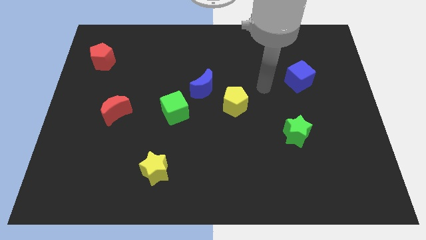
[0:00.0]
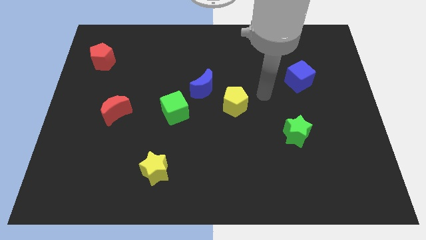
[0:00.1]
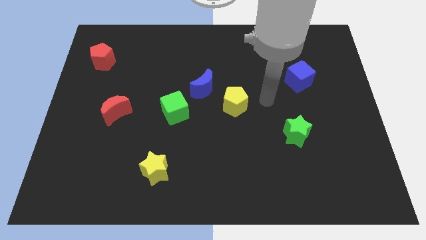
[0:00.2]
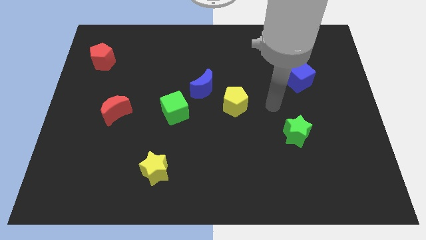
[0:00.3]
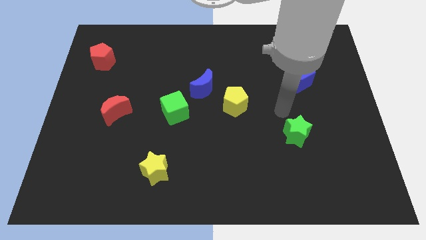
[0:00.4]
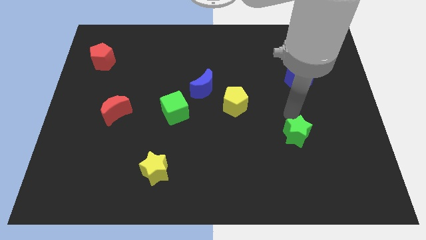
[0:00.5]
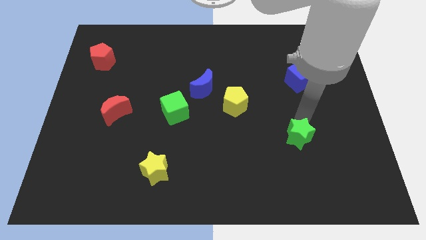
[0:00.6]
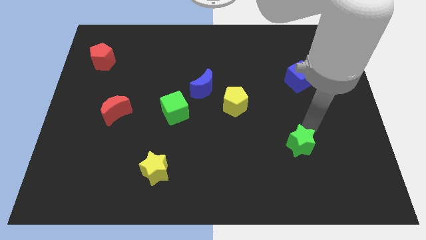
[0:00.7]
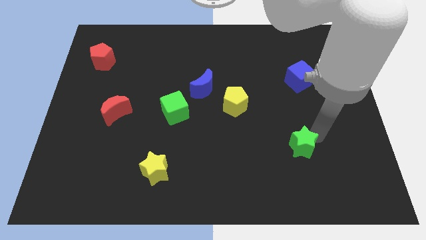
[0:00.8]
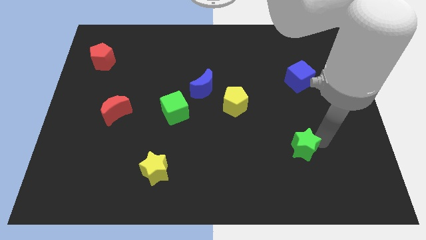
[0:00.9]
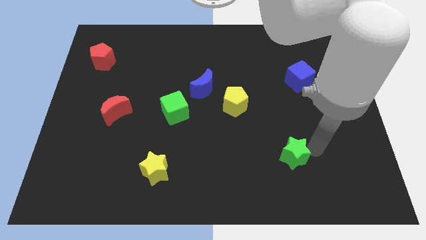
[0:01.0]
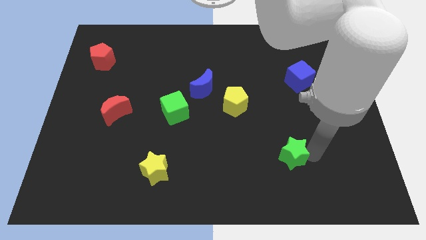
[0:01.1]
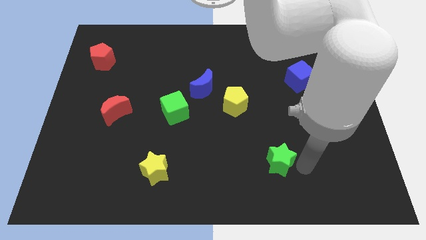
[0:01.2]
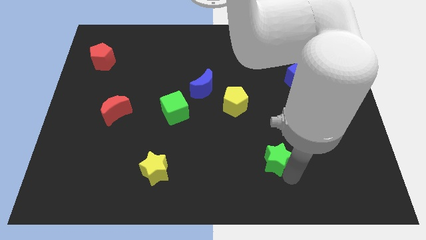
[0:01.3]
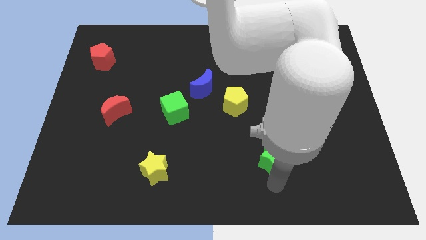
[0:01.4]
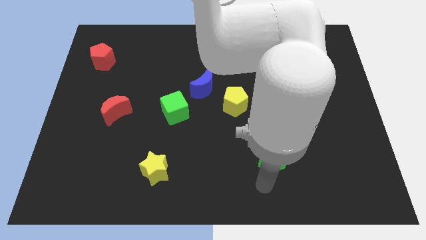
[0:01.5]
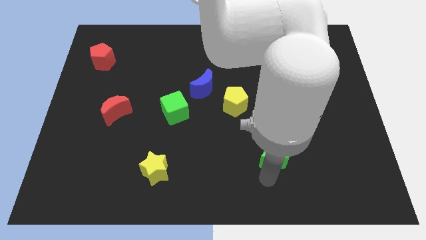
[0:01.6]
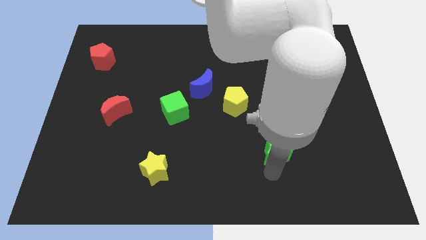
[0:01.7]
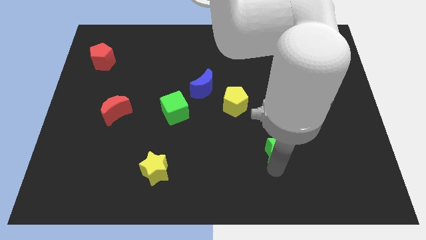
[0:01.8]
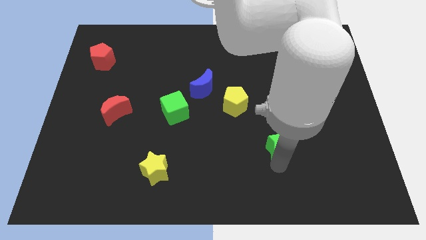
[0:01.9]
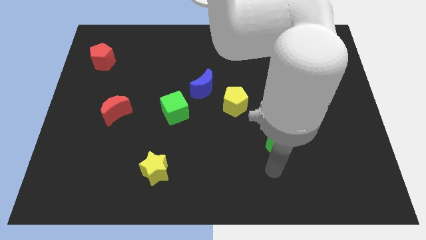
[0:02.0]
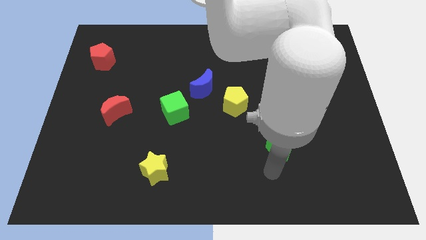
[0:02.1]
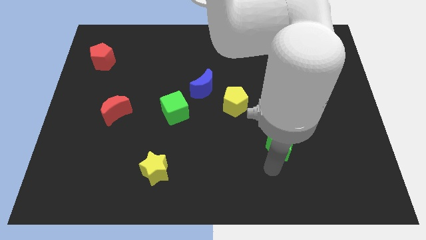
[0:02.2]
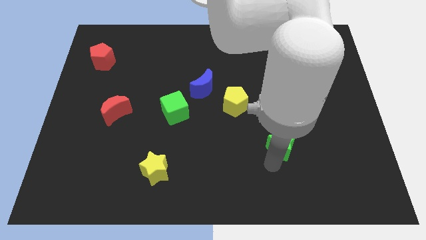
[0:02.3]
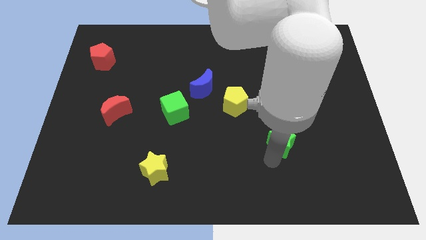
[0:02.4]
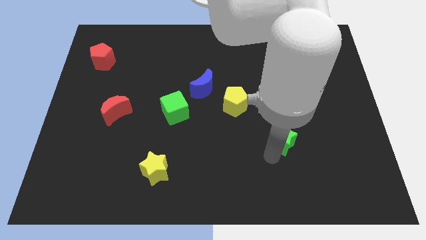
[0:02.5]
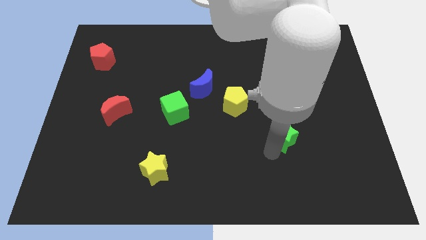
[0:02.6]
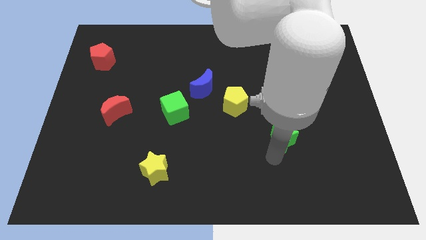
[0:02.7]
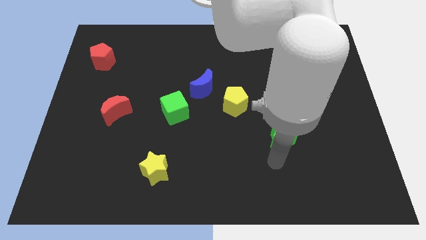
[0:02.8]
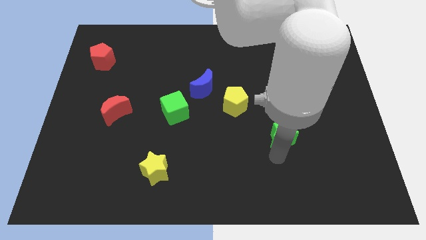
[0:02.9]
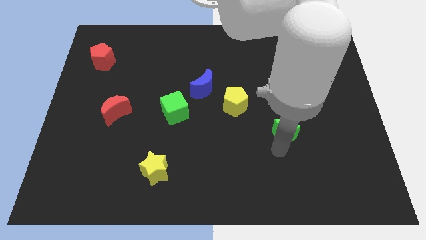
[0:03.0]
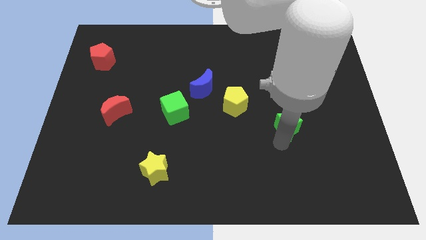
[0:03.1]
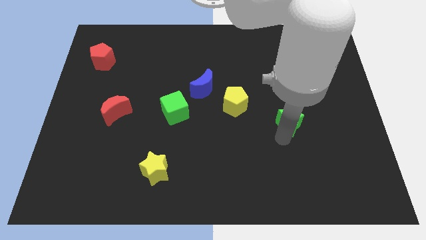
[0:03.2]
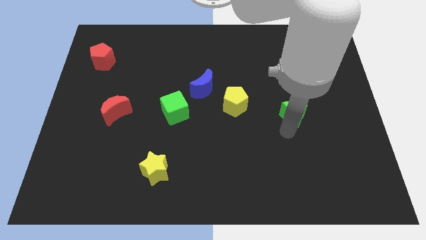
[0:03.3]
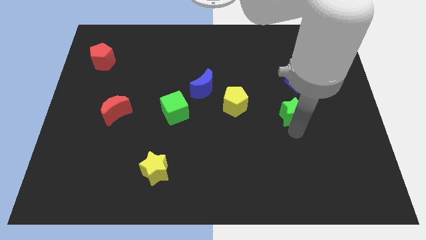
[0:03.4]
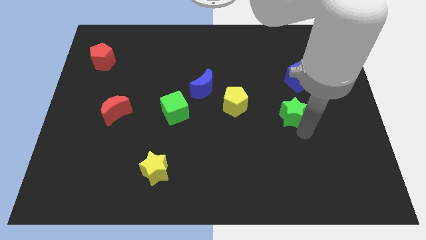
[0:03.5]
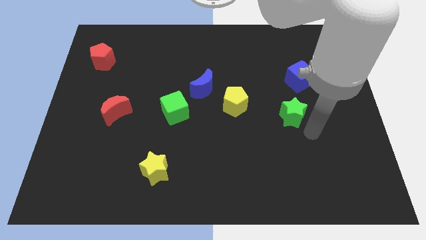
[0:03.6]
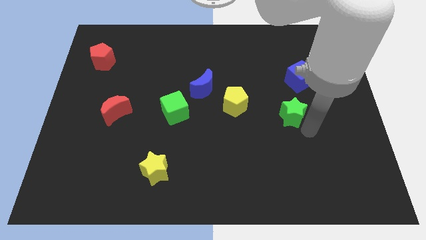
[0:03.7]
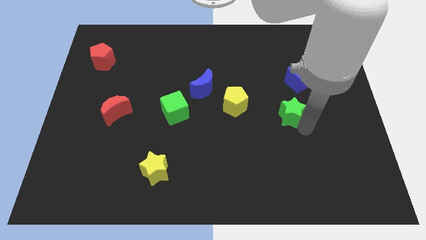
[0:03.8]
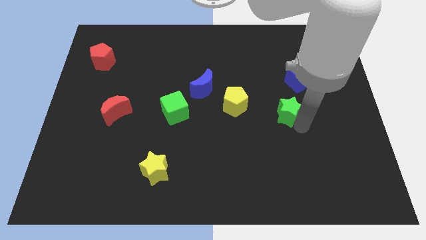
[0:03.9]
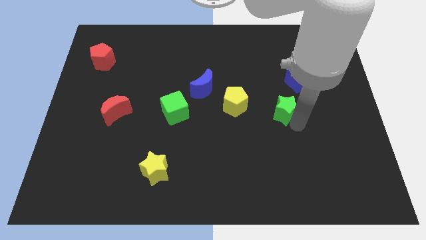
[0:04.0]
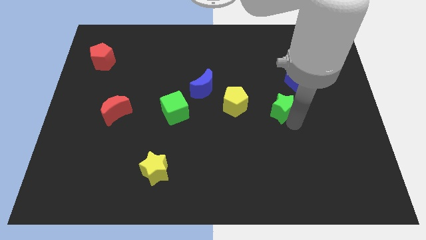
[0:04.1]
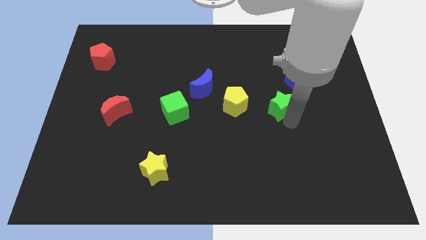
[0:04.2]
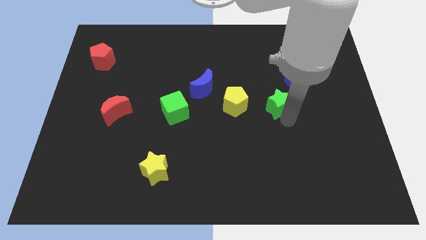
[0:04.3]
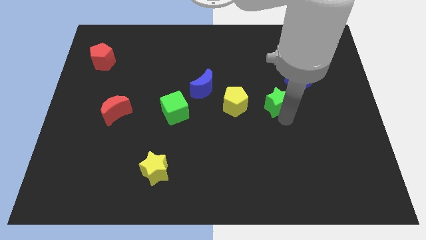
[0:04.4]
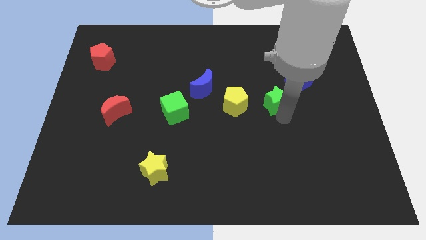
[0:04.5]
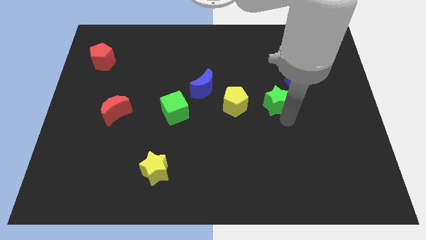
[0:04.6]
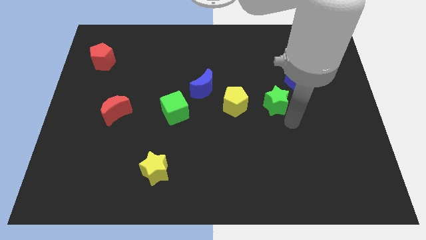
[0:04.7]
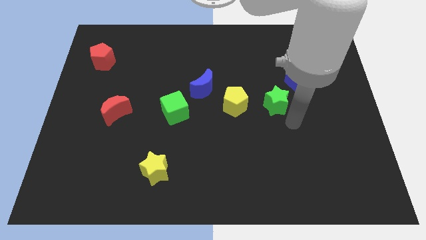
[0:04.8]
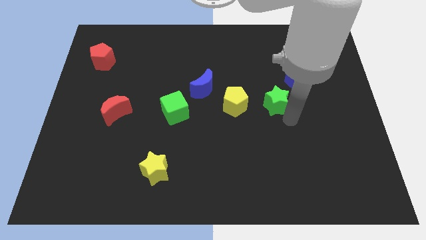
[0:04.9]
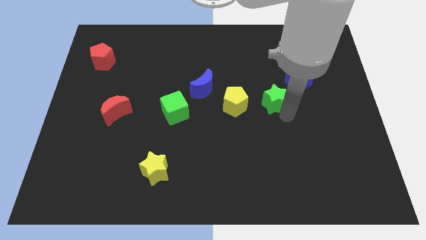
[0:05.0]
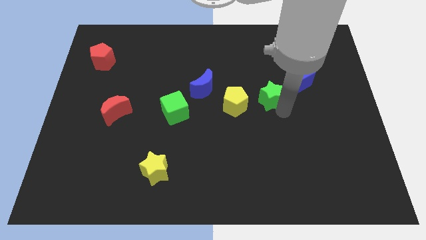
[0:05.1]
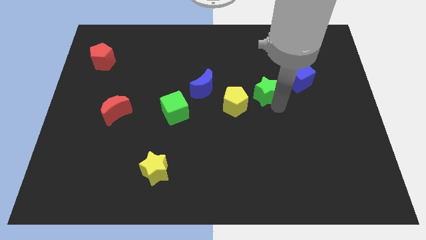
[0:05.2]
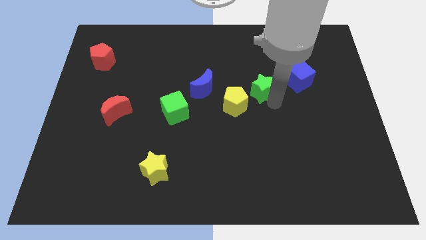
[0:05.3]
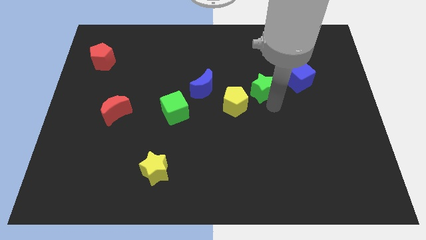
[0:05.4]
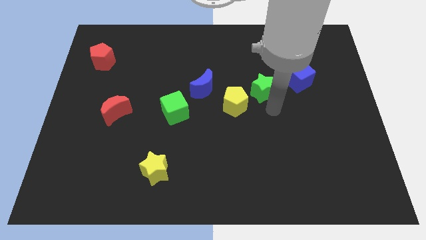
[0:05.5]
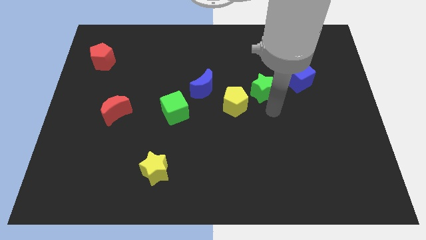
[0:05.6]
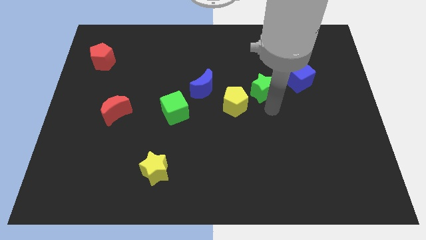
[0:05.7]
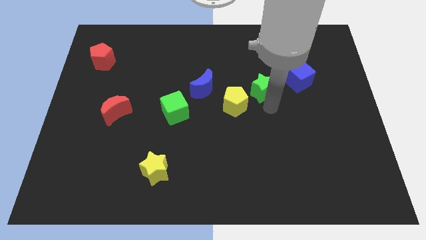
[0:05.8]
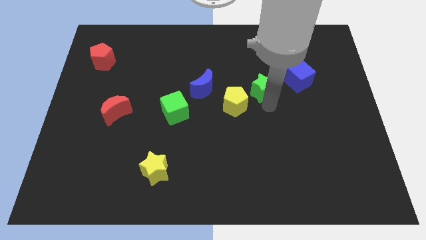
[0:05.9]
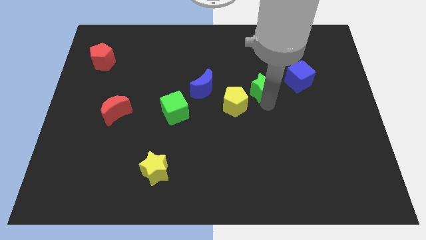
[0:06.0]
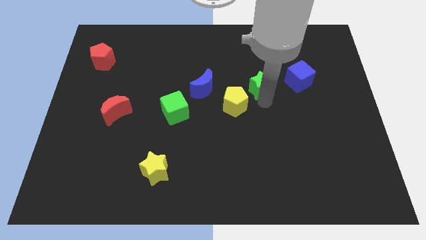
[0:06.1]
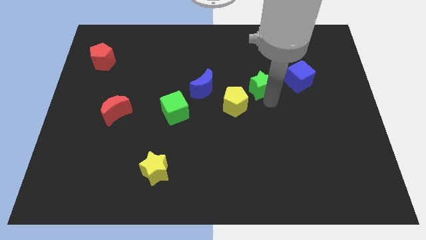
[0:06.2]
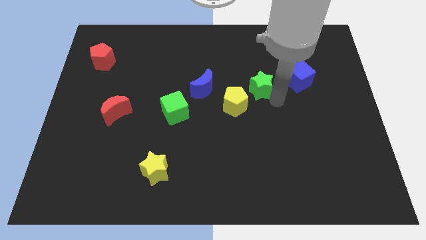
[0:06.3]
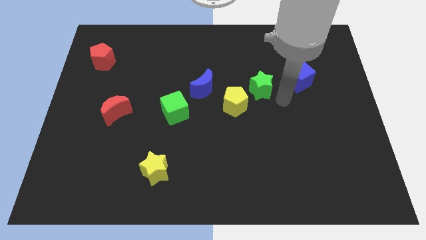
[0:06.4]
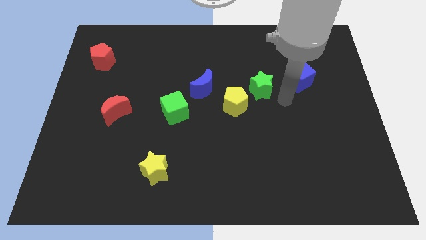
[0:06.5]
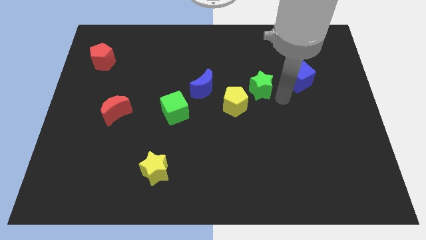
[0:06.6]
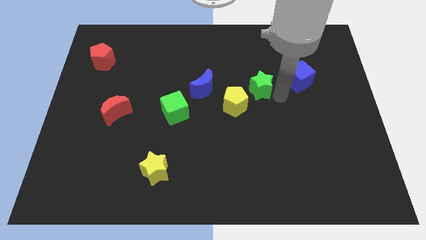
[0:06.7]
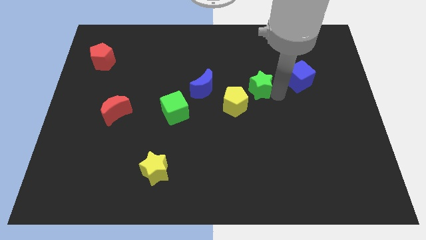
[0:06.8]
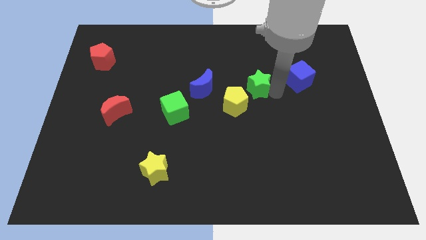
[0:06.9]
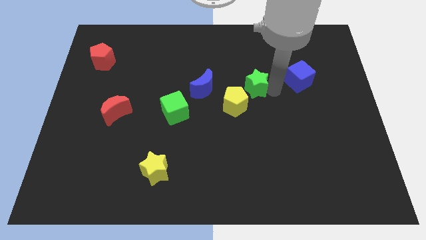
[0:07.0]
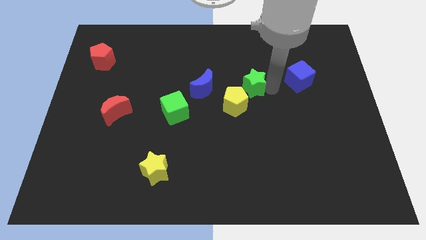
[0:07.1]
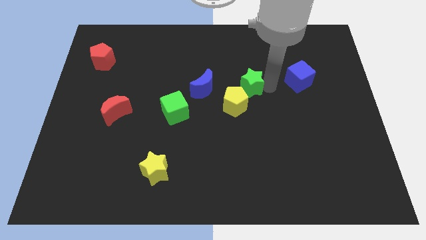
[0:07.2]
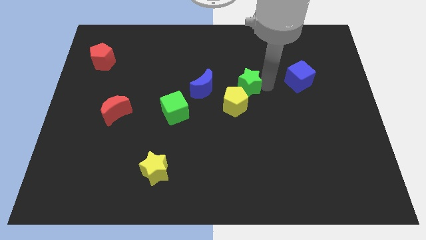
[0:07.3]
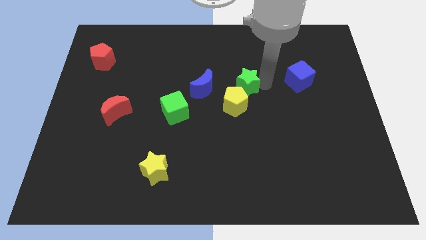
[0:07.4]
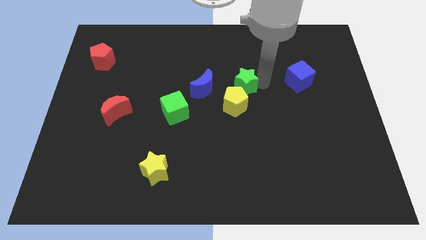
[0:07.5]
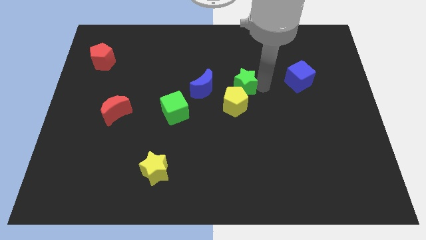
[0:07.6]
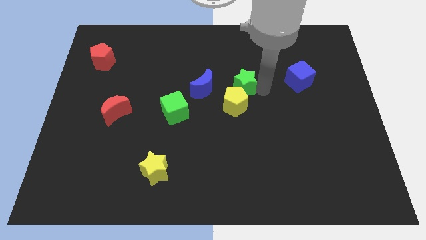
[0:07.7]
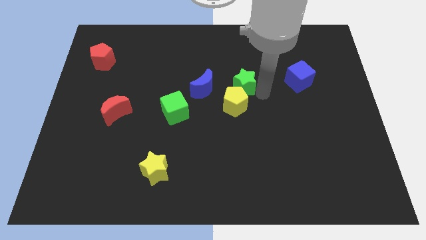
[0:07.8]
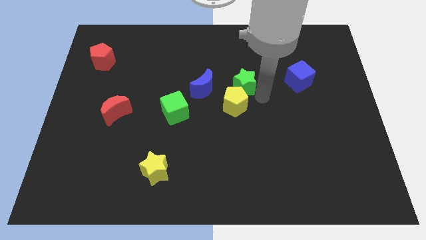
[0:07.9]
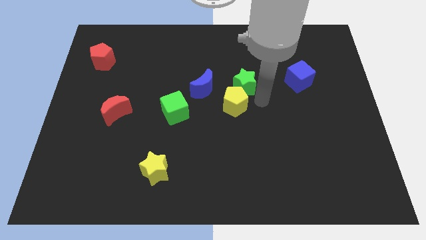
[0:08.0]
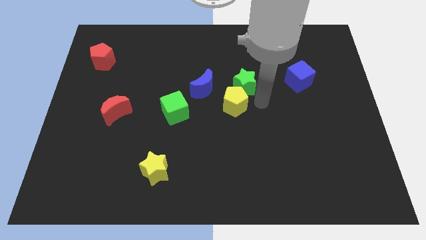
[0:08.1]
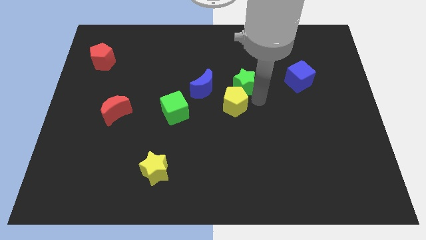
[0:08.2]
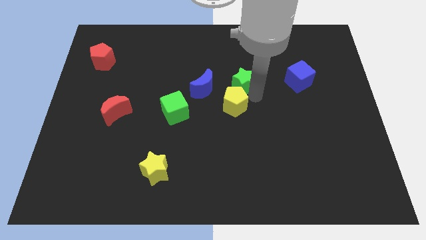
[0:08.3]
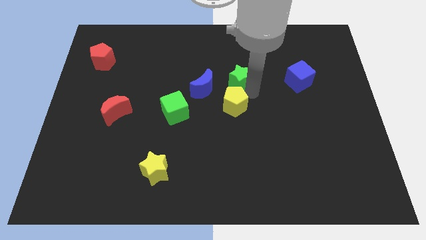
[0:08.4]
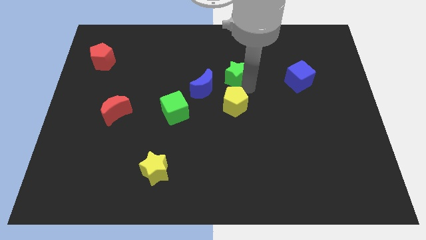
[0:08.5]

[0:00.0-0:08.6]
slide the green star up and then left
